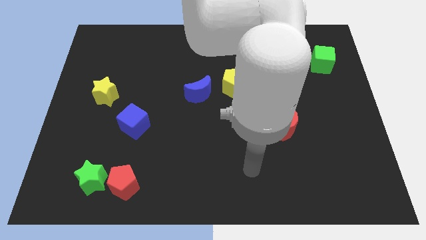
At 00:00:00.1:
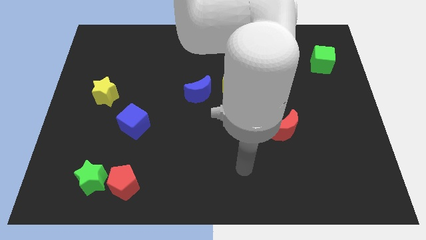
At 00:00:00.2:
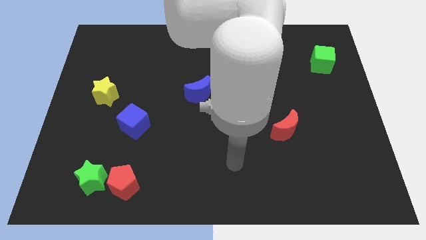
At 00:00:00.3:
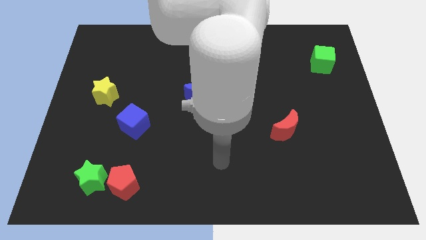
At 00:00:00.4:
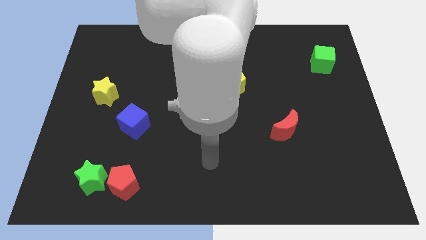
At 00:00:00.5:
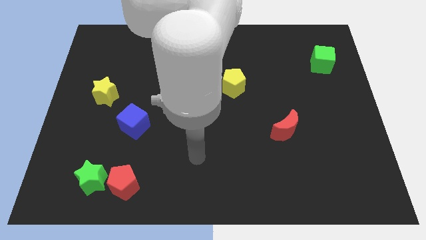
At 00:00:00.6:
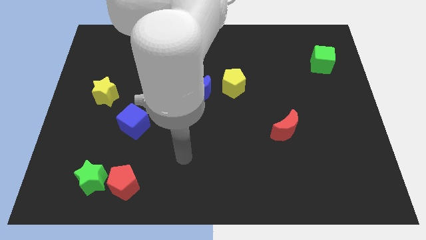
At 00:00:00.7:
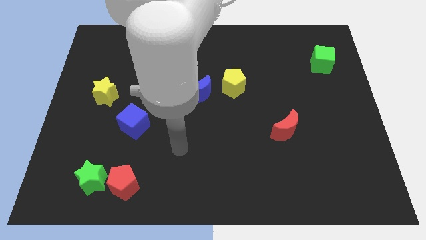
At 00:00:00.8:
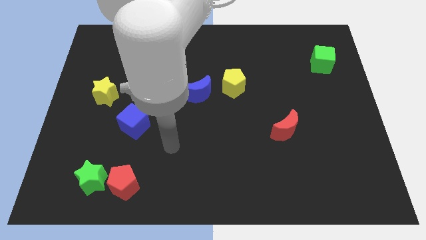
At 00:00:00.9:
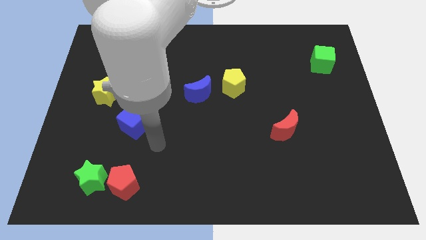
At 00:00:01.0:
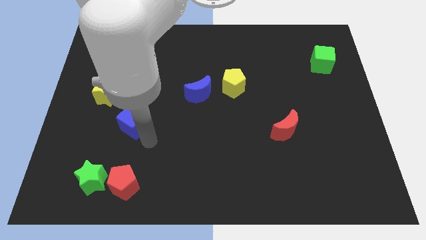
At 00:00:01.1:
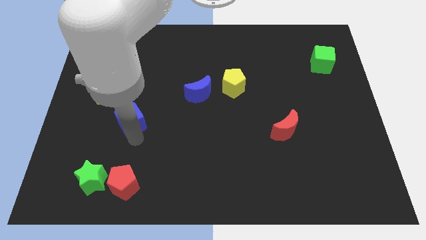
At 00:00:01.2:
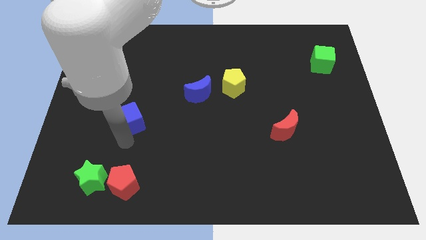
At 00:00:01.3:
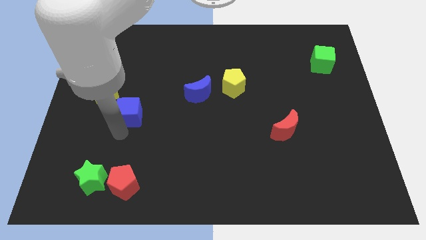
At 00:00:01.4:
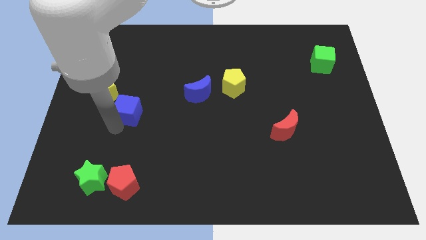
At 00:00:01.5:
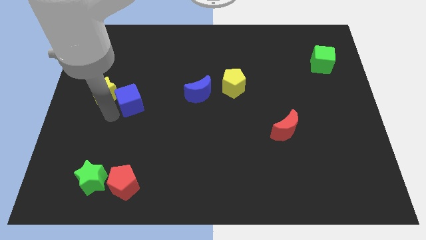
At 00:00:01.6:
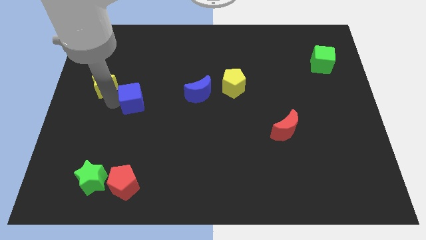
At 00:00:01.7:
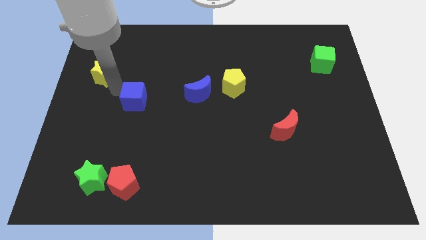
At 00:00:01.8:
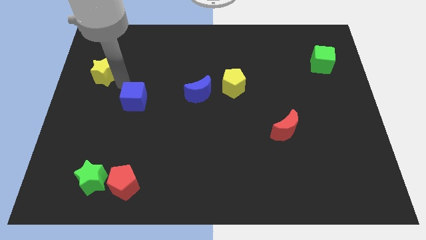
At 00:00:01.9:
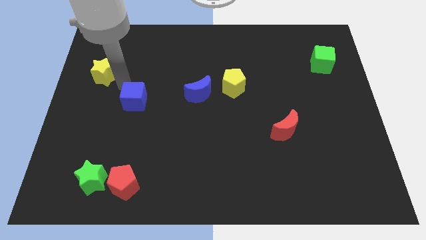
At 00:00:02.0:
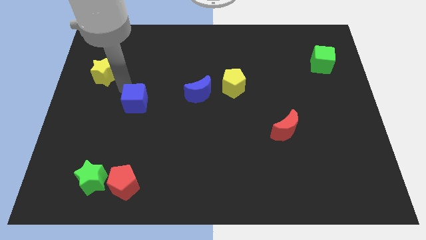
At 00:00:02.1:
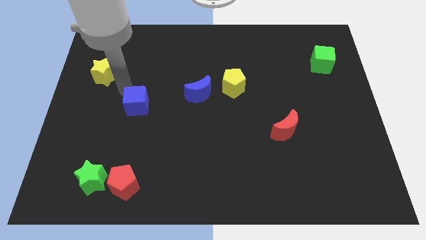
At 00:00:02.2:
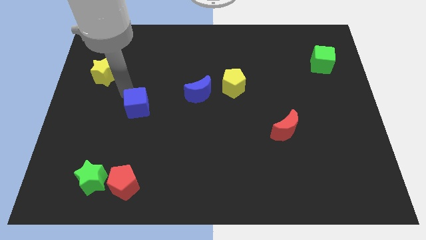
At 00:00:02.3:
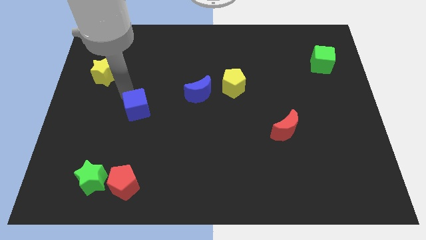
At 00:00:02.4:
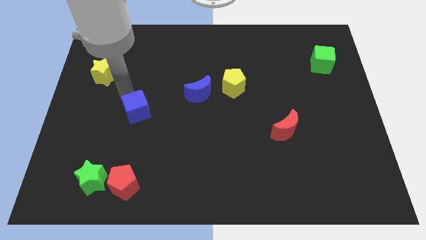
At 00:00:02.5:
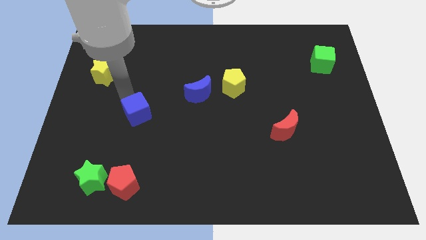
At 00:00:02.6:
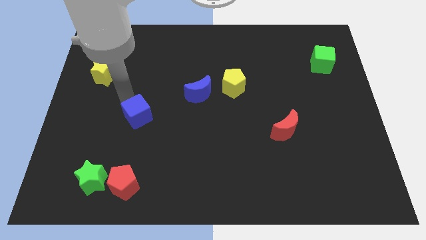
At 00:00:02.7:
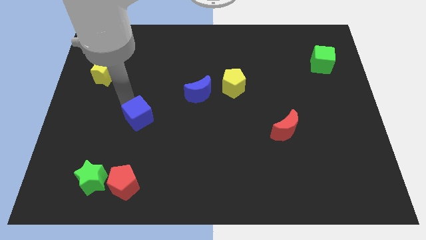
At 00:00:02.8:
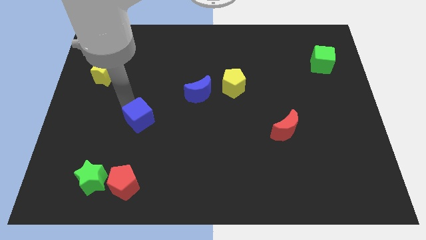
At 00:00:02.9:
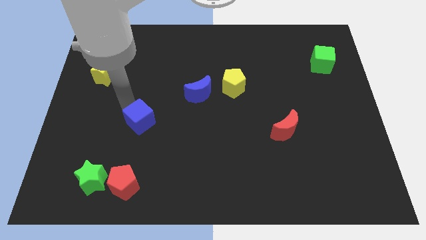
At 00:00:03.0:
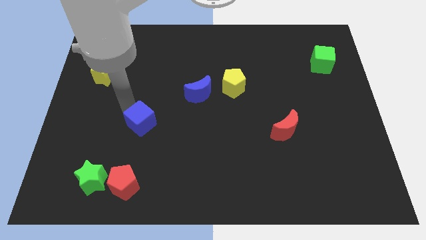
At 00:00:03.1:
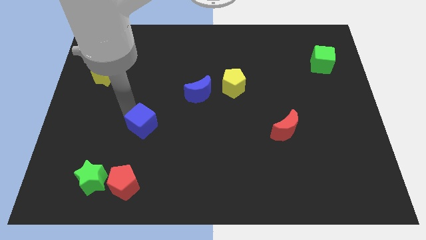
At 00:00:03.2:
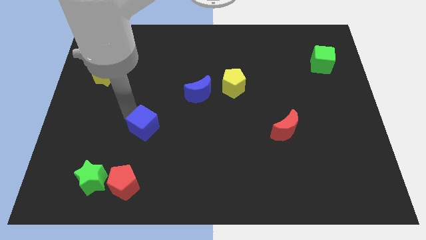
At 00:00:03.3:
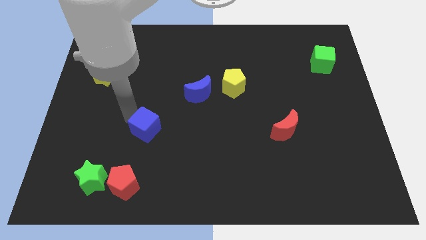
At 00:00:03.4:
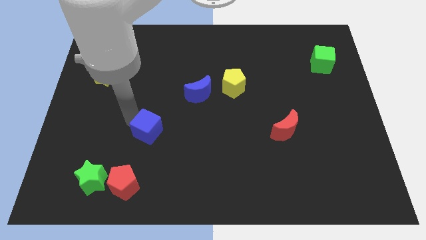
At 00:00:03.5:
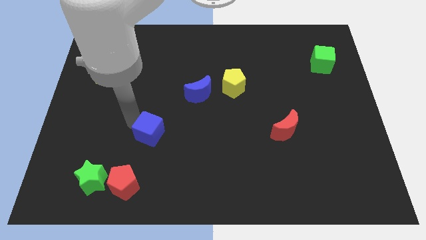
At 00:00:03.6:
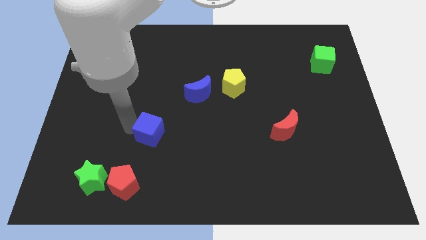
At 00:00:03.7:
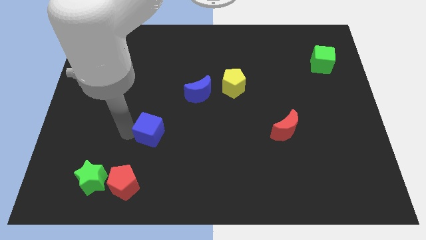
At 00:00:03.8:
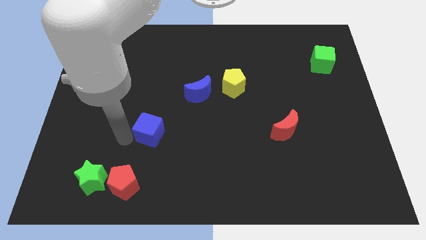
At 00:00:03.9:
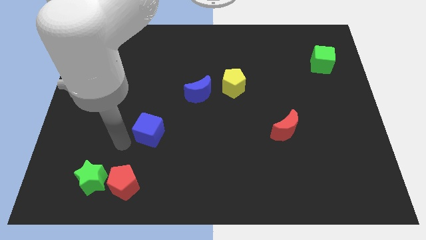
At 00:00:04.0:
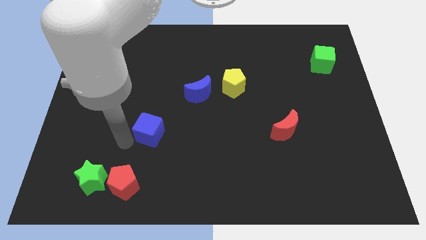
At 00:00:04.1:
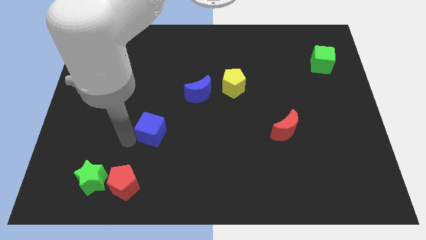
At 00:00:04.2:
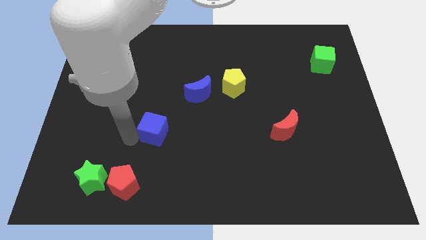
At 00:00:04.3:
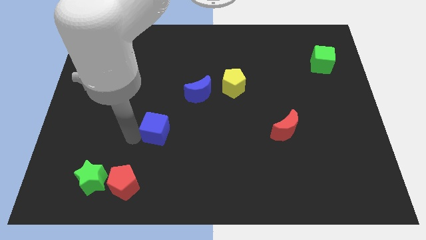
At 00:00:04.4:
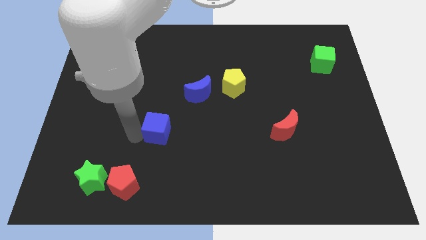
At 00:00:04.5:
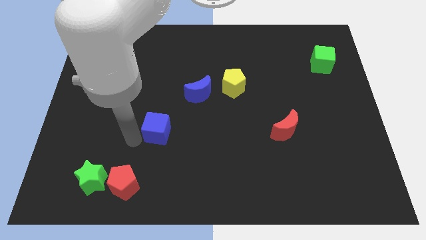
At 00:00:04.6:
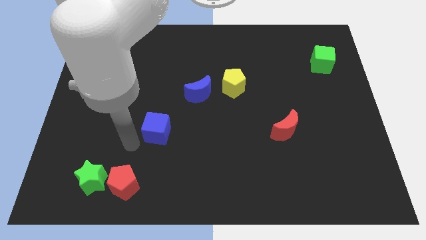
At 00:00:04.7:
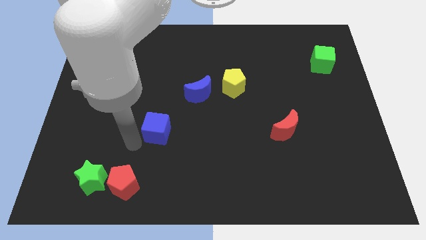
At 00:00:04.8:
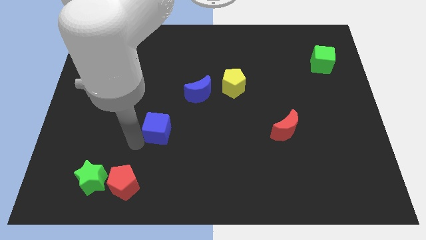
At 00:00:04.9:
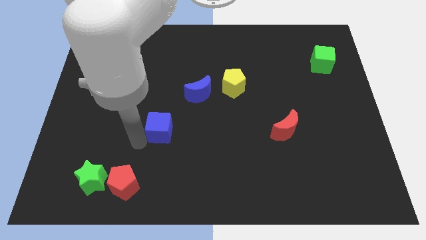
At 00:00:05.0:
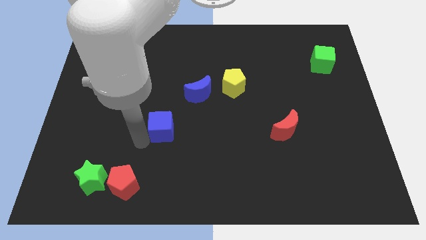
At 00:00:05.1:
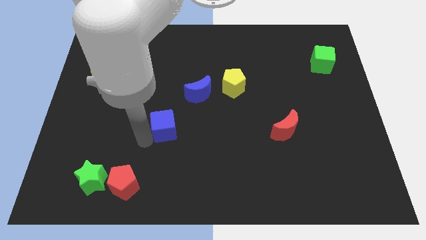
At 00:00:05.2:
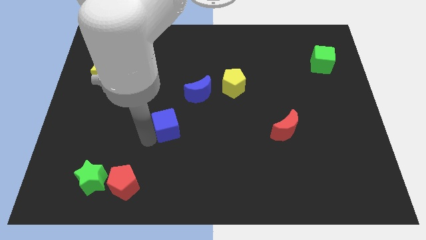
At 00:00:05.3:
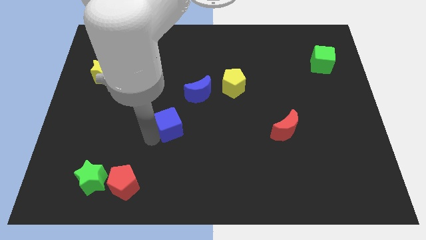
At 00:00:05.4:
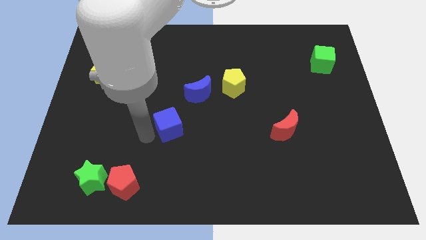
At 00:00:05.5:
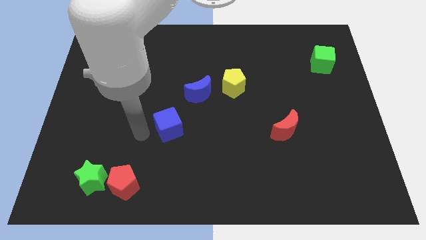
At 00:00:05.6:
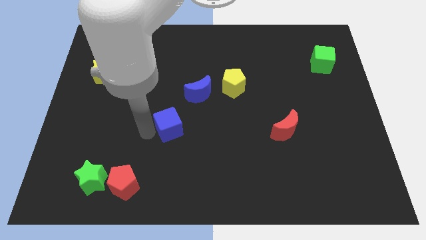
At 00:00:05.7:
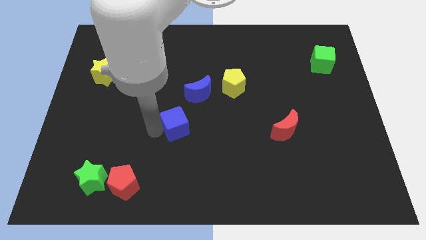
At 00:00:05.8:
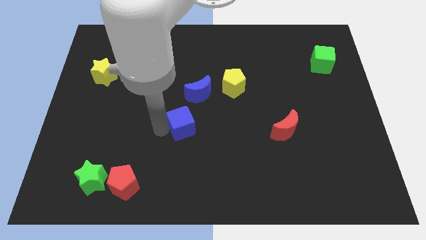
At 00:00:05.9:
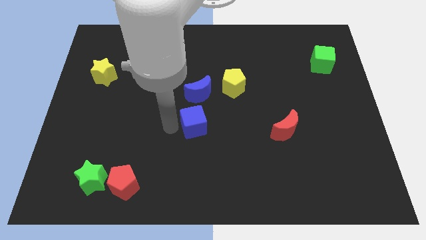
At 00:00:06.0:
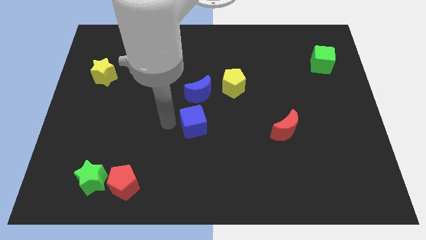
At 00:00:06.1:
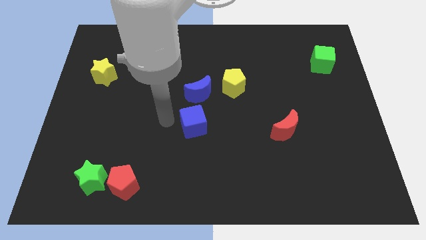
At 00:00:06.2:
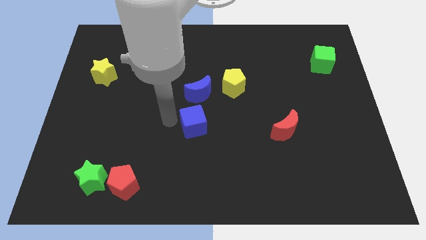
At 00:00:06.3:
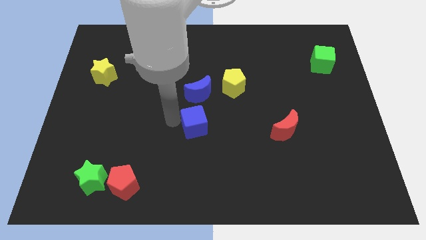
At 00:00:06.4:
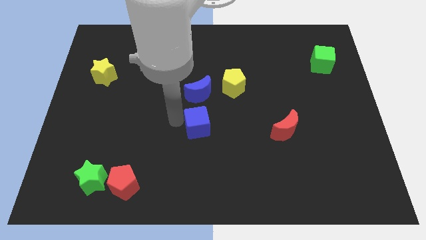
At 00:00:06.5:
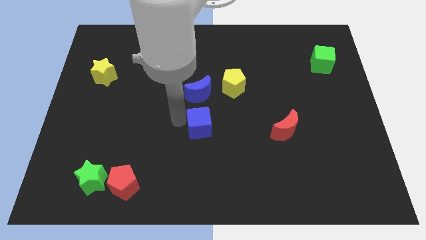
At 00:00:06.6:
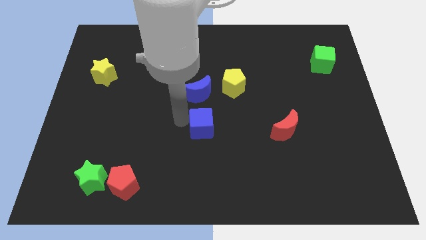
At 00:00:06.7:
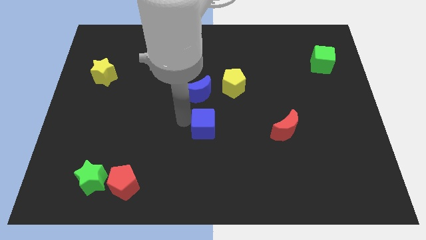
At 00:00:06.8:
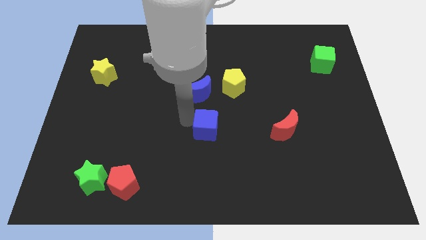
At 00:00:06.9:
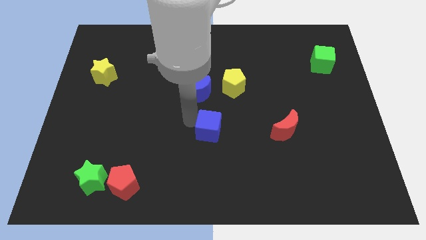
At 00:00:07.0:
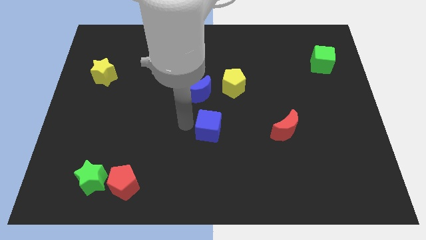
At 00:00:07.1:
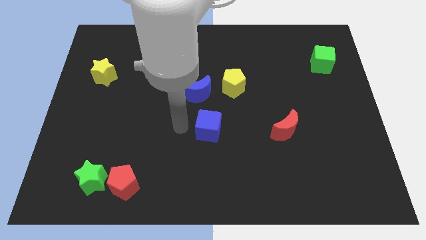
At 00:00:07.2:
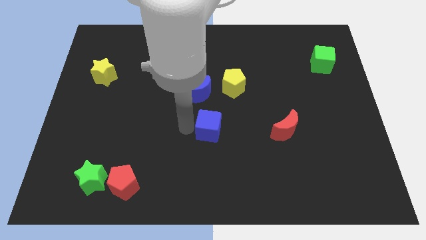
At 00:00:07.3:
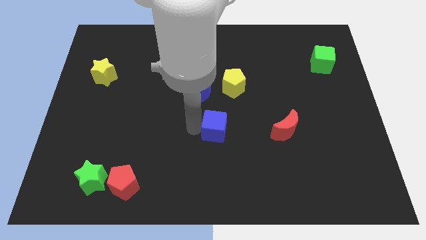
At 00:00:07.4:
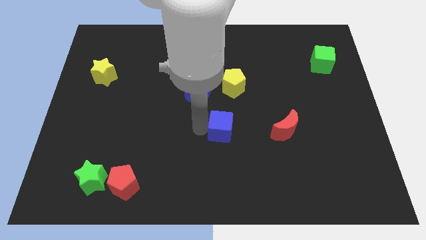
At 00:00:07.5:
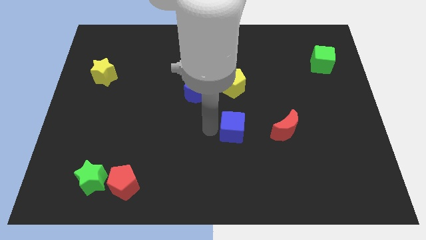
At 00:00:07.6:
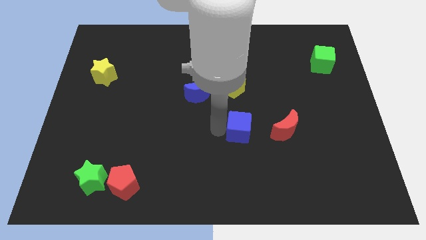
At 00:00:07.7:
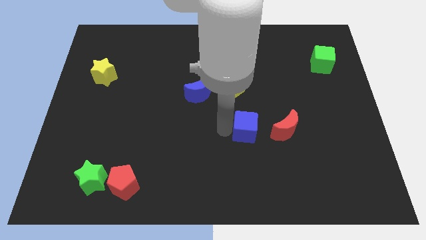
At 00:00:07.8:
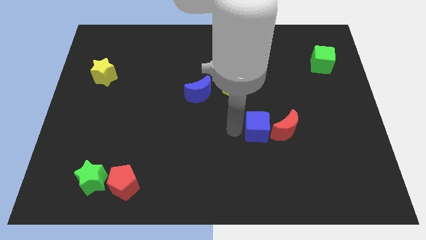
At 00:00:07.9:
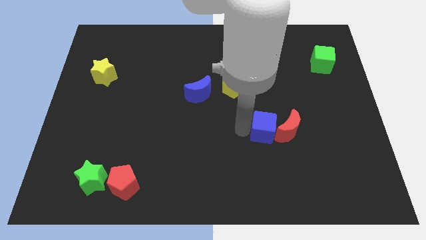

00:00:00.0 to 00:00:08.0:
move the blue cube close to the red moon
